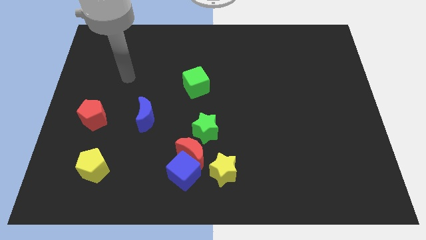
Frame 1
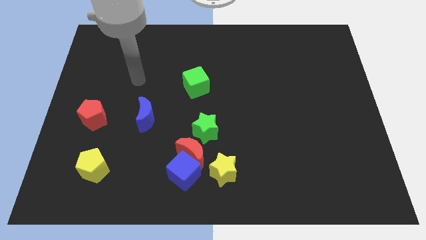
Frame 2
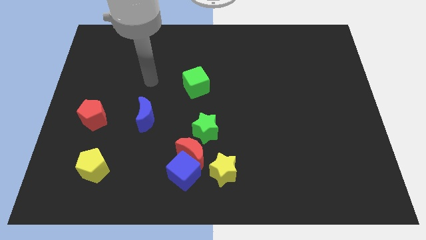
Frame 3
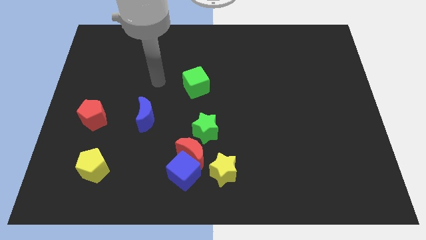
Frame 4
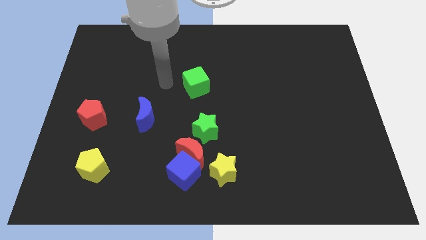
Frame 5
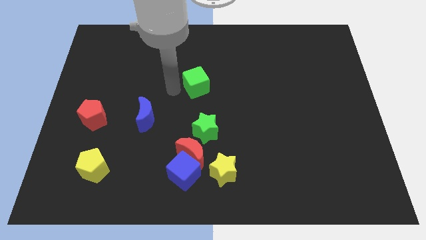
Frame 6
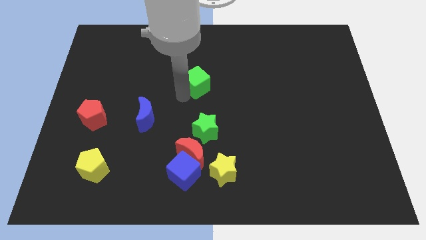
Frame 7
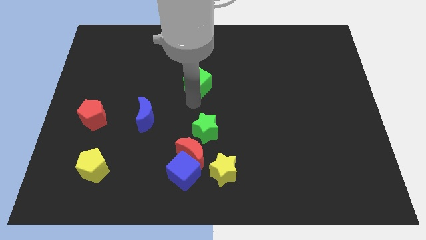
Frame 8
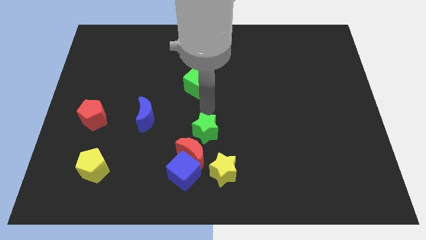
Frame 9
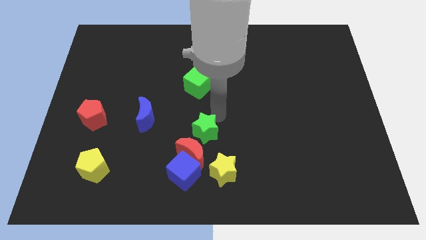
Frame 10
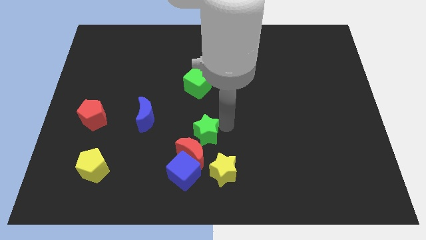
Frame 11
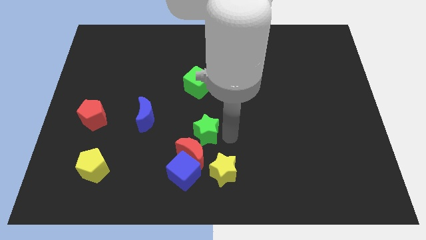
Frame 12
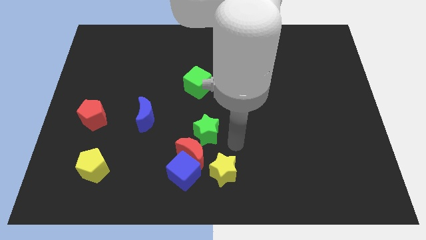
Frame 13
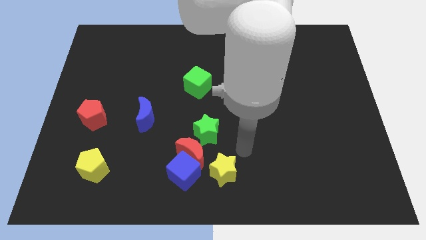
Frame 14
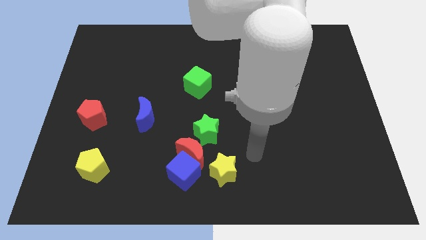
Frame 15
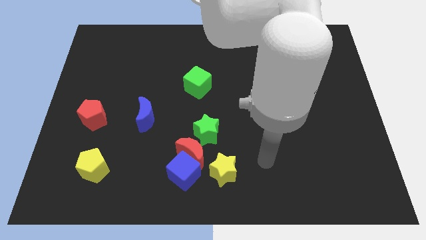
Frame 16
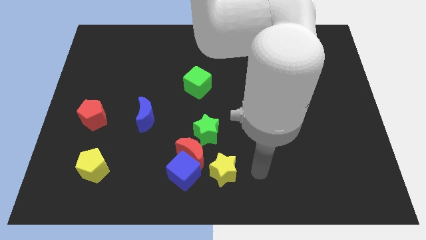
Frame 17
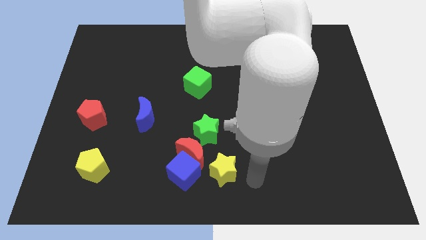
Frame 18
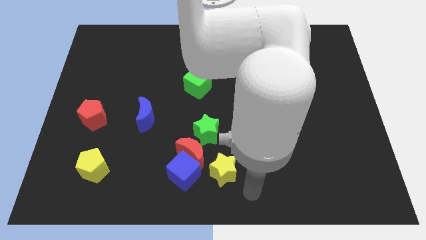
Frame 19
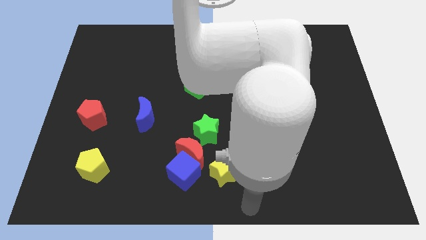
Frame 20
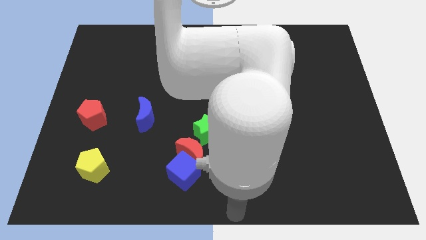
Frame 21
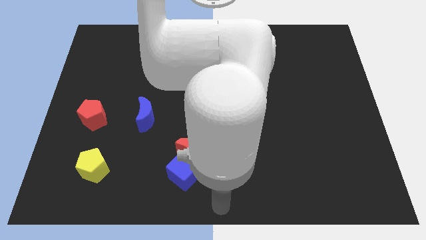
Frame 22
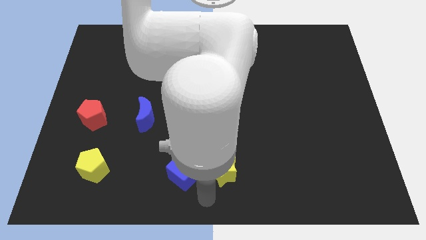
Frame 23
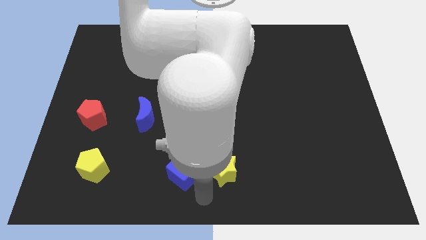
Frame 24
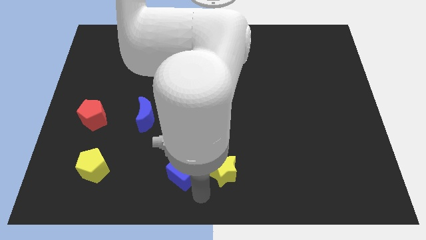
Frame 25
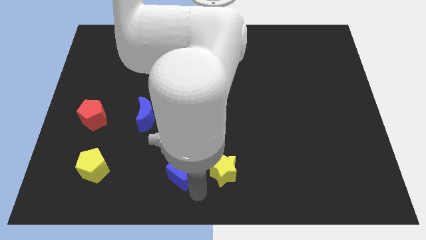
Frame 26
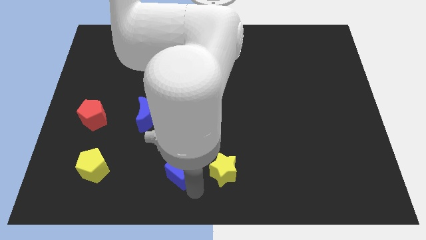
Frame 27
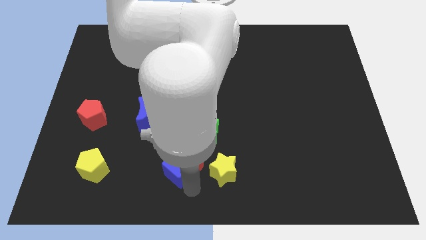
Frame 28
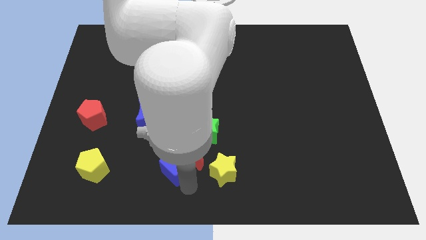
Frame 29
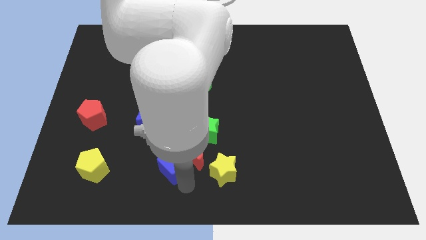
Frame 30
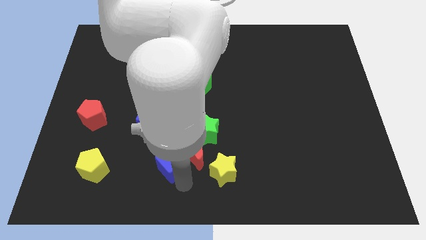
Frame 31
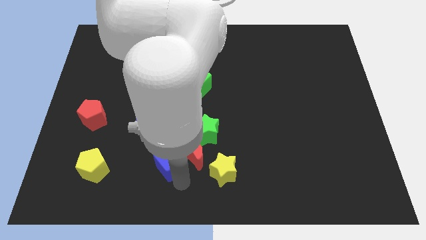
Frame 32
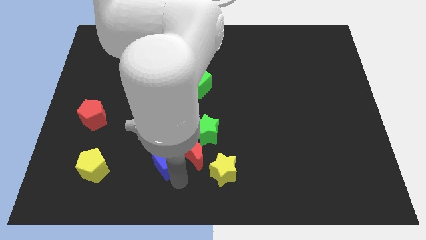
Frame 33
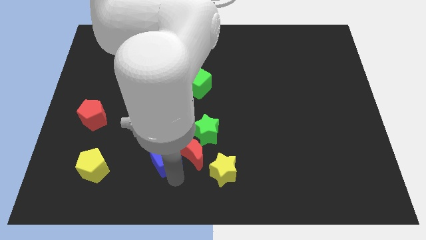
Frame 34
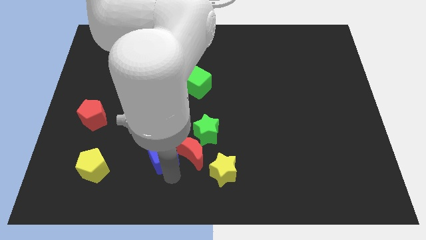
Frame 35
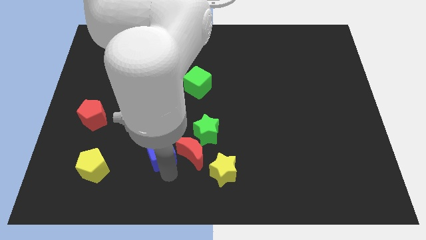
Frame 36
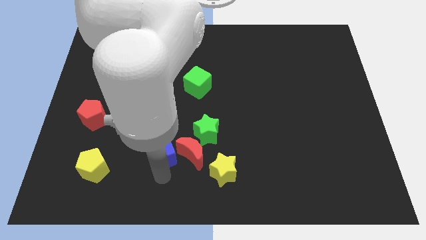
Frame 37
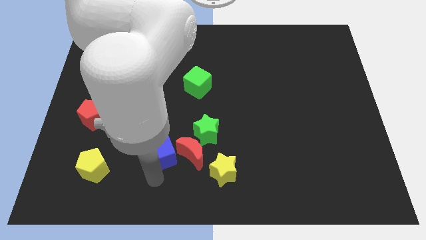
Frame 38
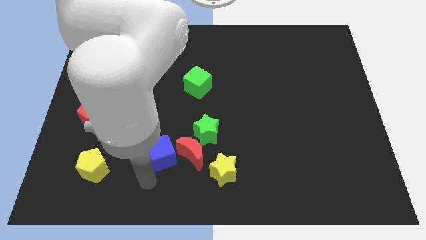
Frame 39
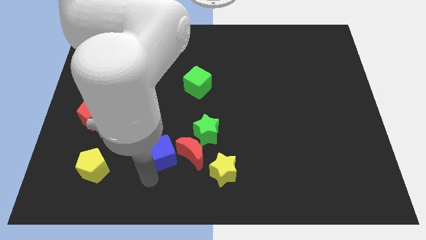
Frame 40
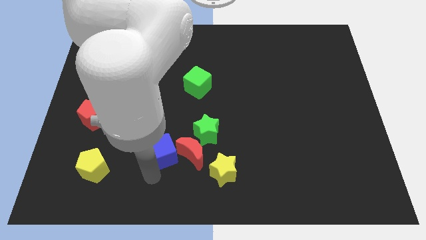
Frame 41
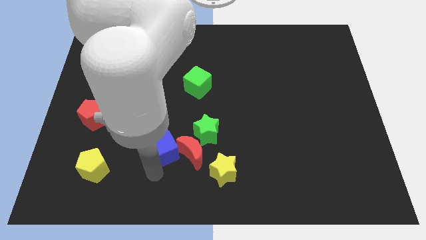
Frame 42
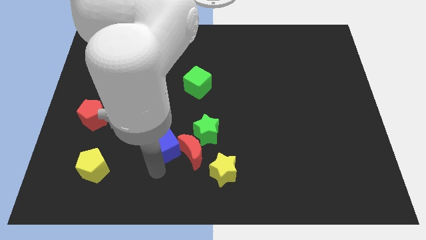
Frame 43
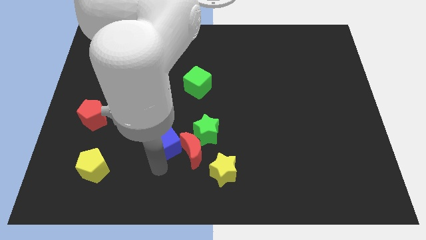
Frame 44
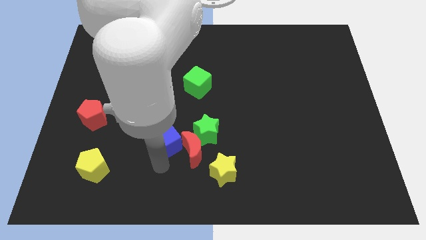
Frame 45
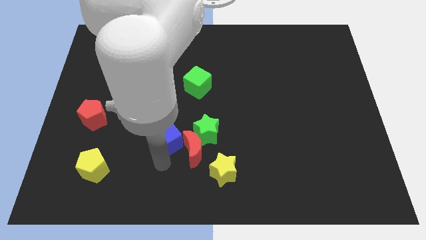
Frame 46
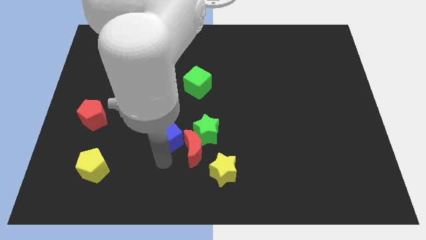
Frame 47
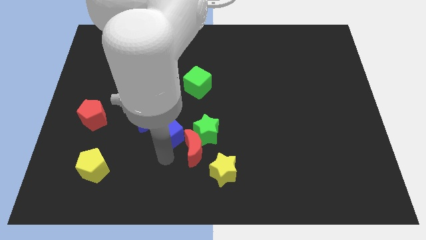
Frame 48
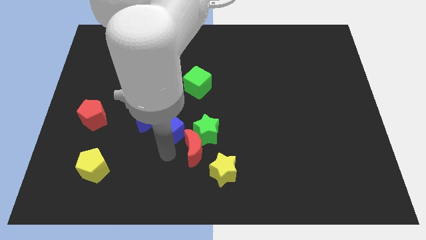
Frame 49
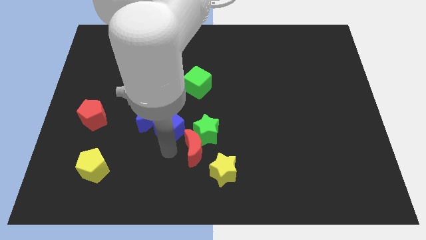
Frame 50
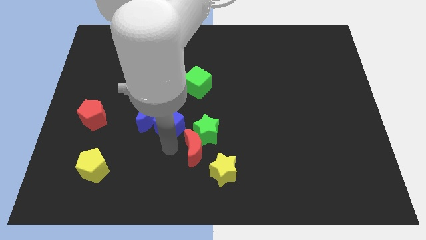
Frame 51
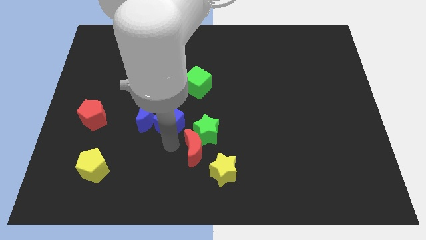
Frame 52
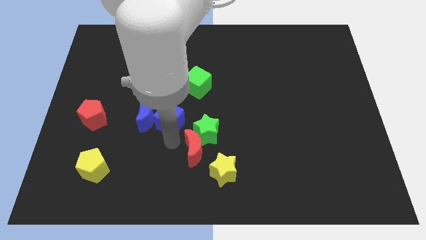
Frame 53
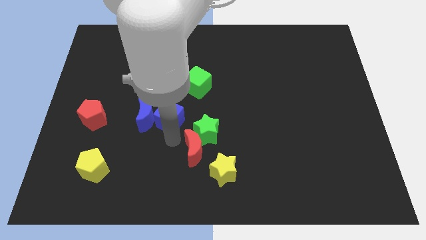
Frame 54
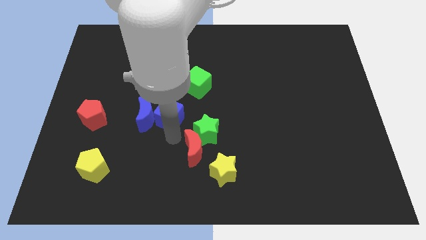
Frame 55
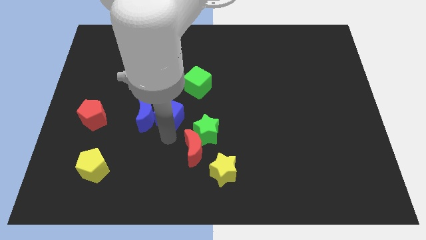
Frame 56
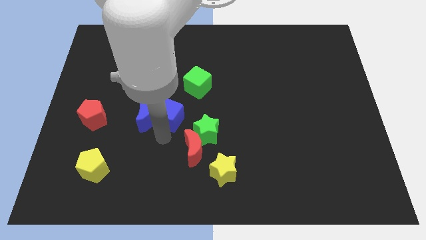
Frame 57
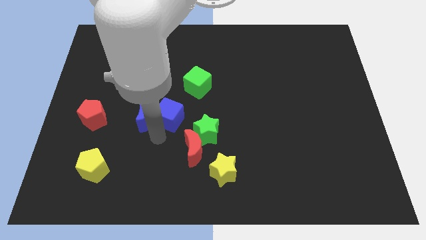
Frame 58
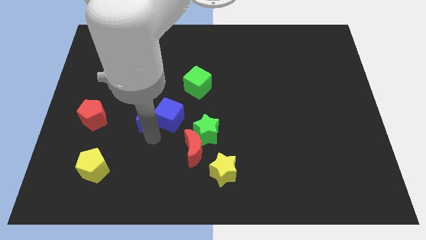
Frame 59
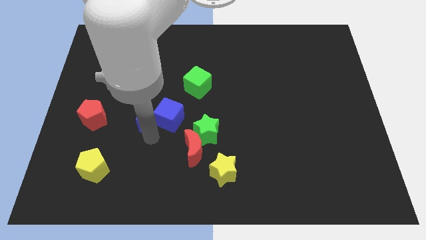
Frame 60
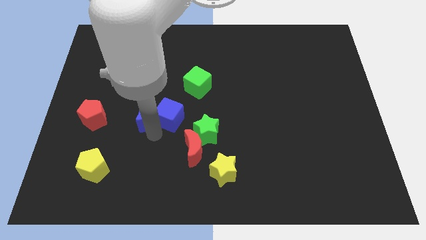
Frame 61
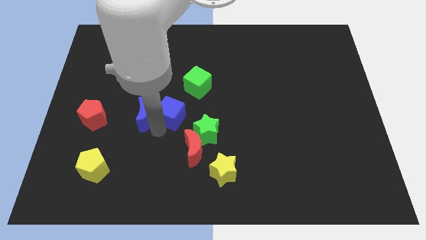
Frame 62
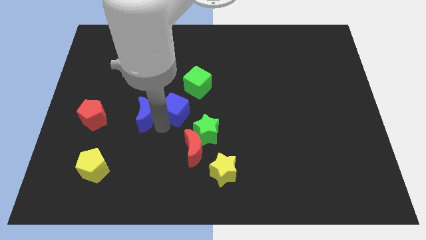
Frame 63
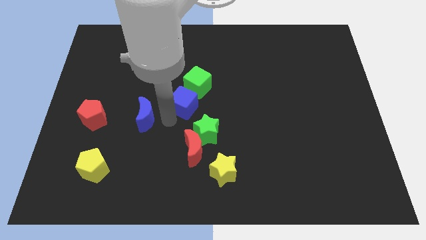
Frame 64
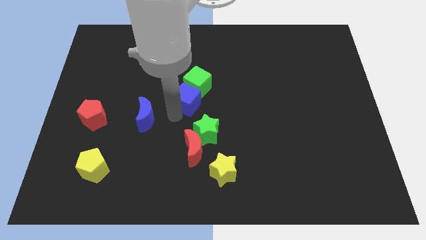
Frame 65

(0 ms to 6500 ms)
push the blue cube to the green cube

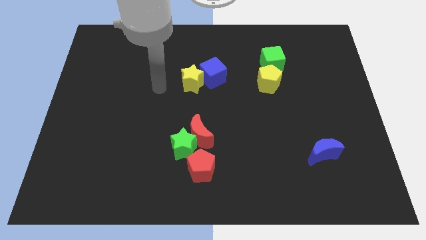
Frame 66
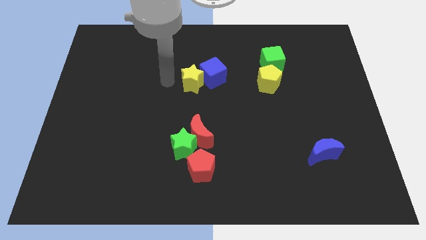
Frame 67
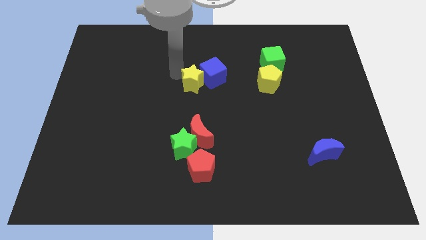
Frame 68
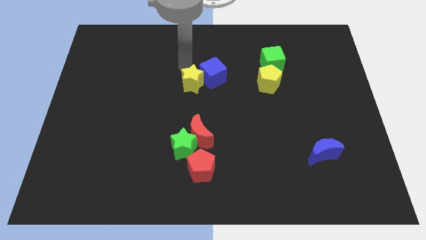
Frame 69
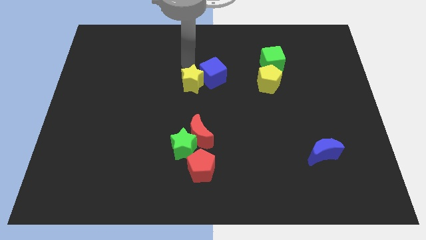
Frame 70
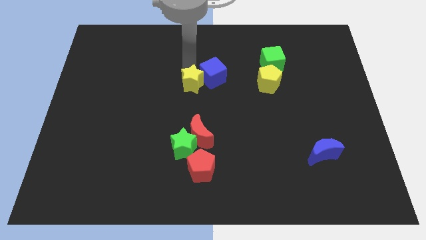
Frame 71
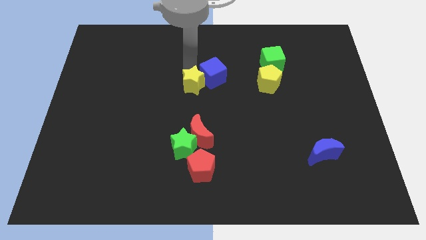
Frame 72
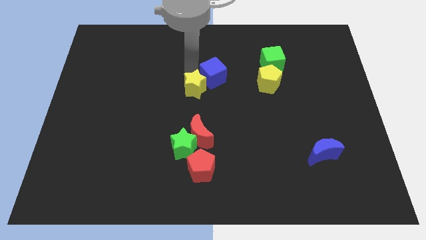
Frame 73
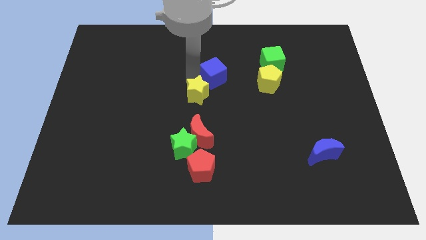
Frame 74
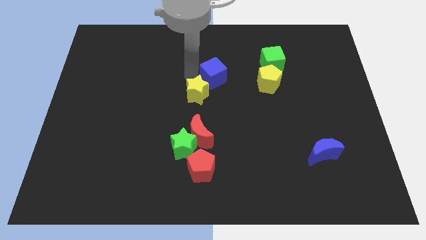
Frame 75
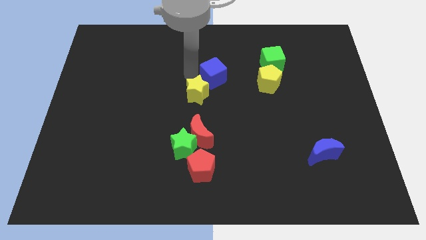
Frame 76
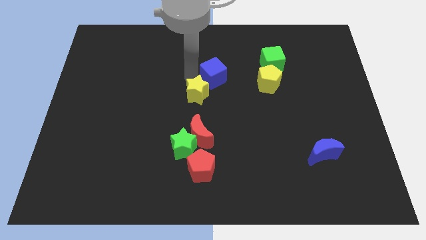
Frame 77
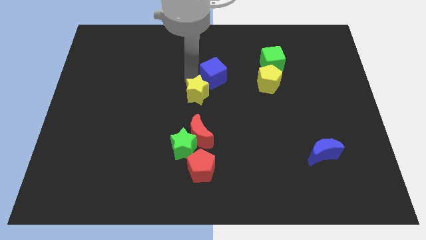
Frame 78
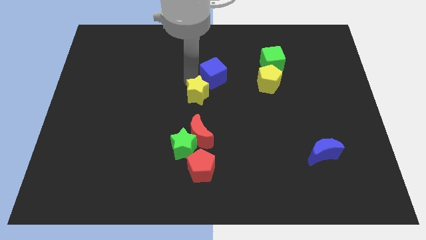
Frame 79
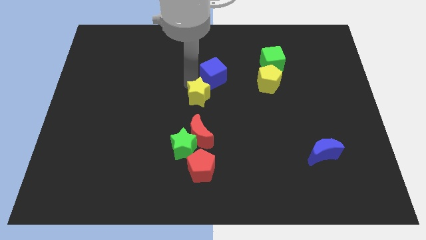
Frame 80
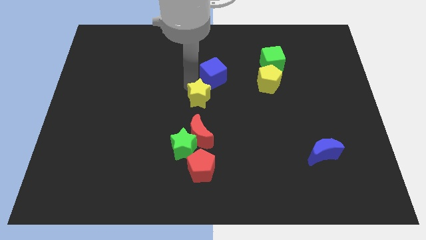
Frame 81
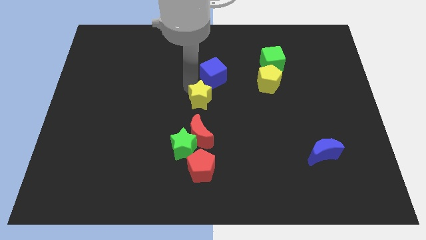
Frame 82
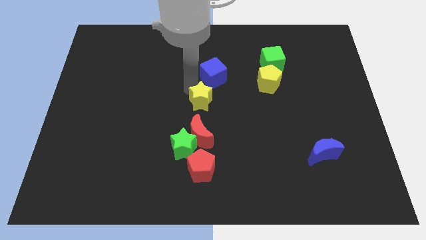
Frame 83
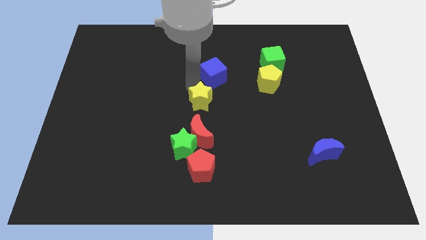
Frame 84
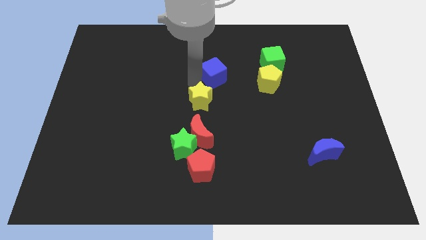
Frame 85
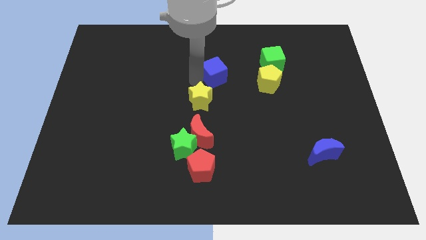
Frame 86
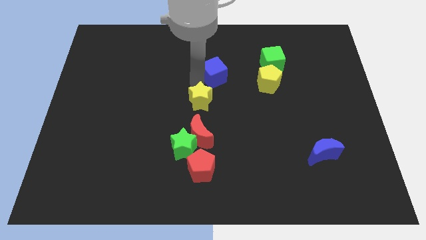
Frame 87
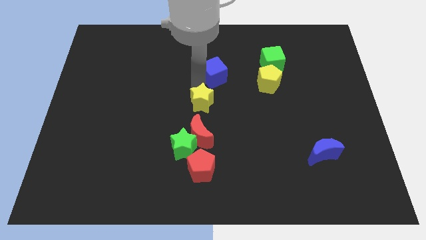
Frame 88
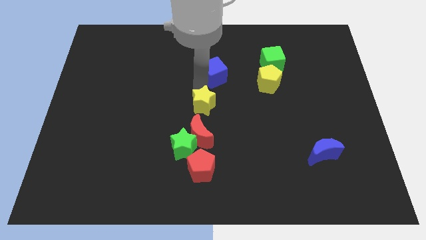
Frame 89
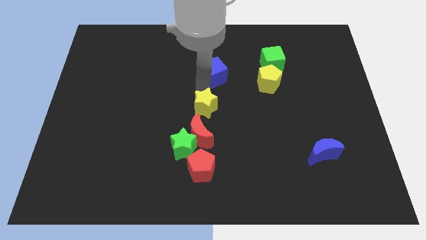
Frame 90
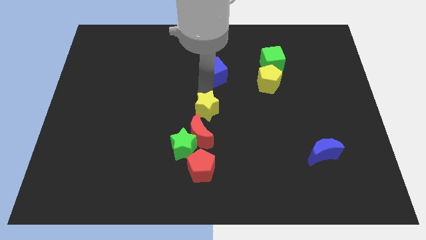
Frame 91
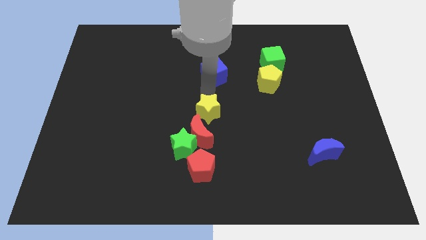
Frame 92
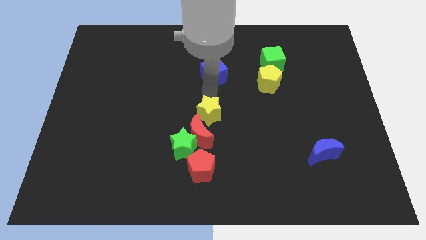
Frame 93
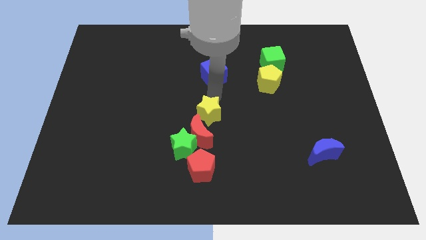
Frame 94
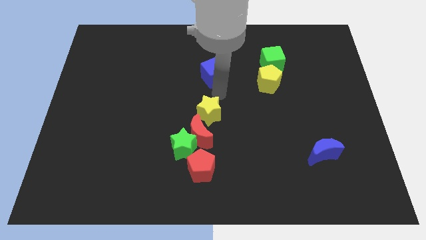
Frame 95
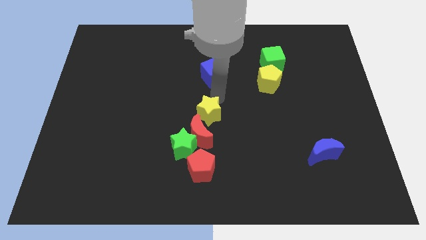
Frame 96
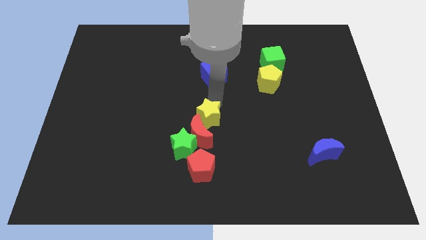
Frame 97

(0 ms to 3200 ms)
slide the yellow star to the red moon
